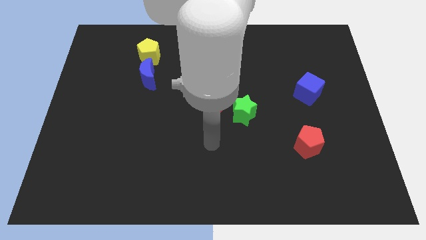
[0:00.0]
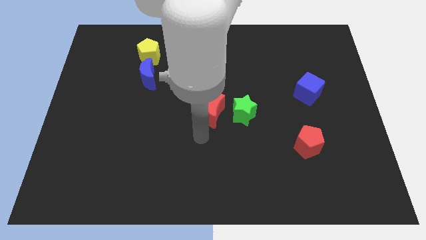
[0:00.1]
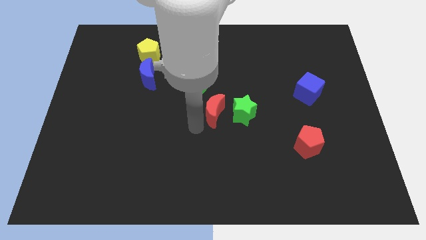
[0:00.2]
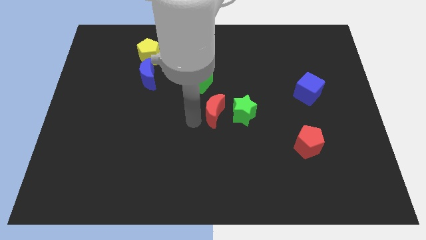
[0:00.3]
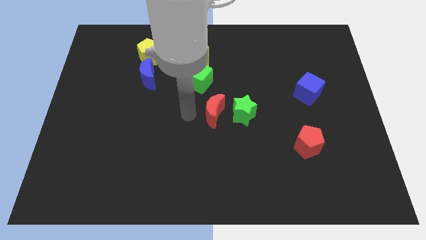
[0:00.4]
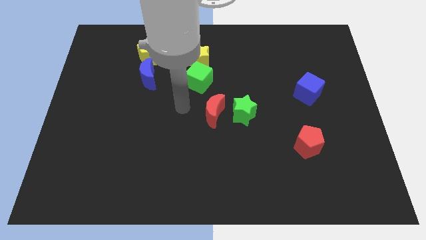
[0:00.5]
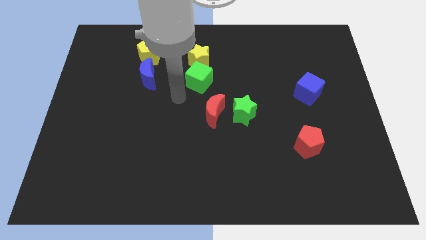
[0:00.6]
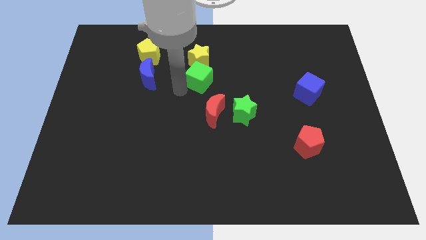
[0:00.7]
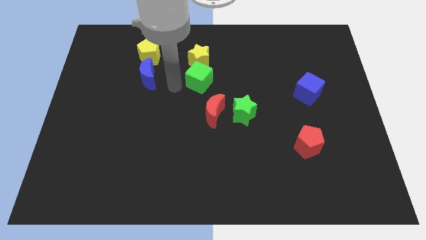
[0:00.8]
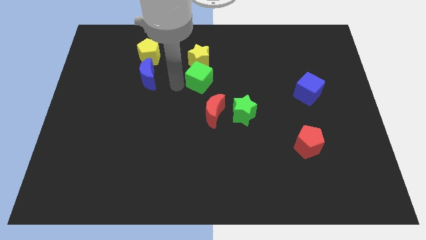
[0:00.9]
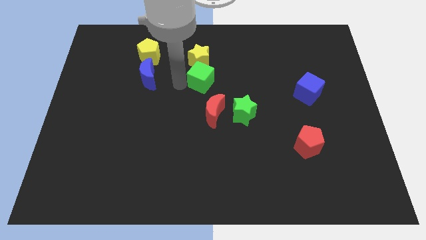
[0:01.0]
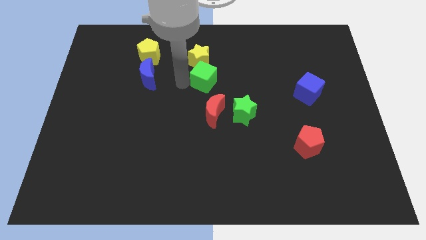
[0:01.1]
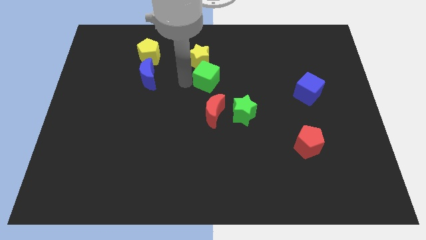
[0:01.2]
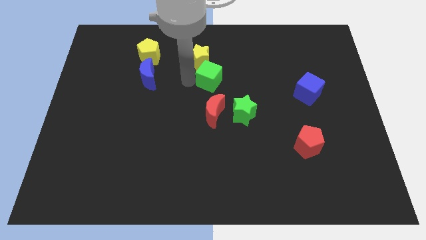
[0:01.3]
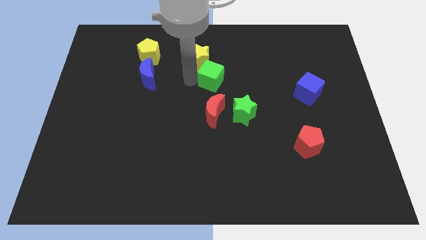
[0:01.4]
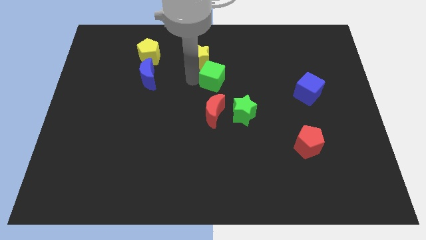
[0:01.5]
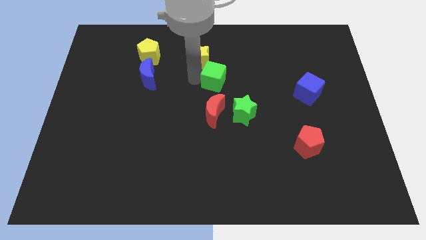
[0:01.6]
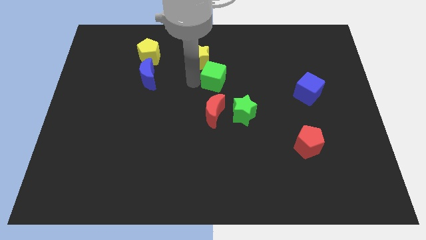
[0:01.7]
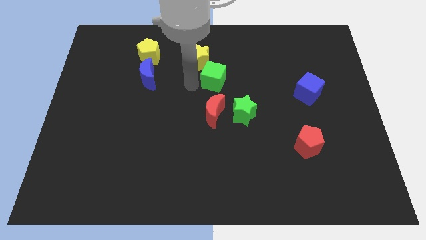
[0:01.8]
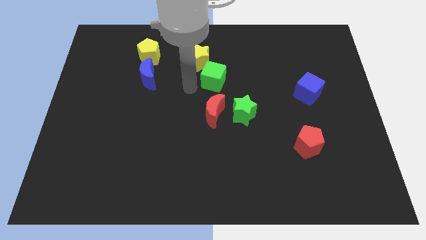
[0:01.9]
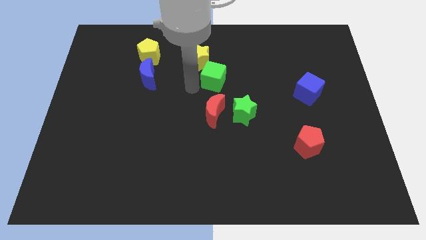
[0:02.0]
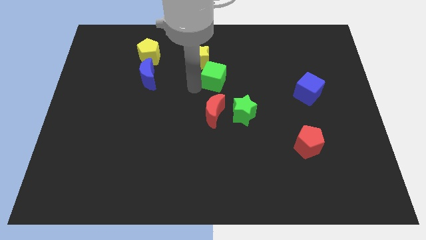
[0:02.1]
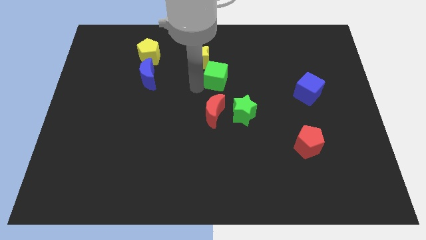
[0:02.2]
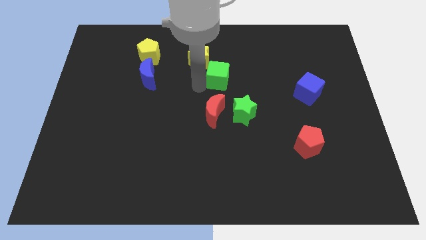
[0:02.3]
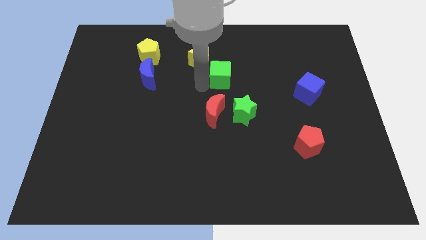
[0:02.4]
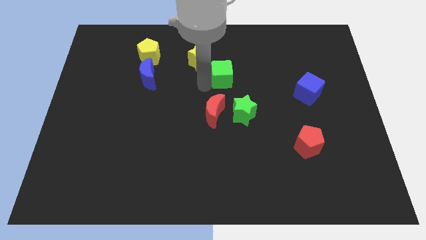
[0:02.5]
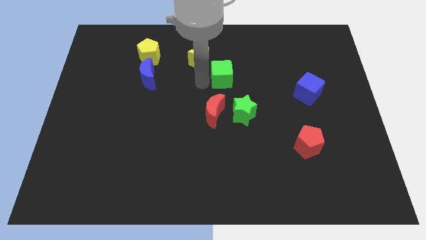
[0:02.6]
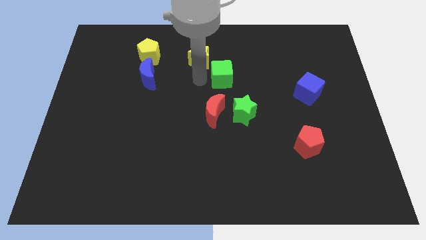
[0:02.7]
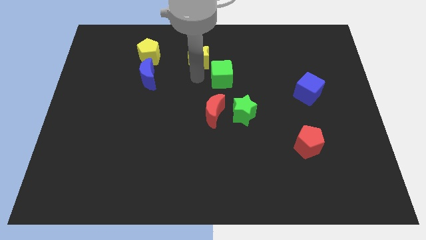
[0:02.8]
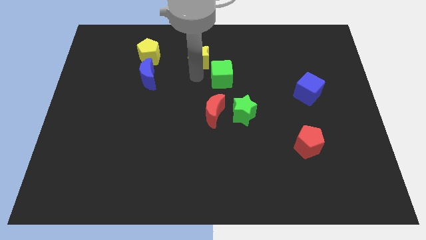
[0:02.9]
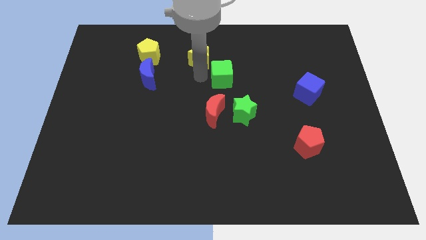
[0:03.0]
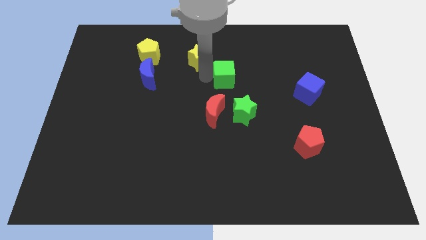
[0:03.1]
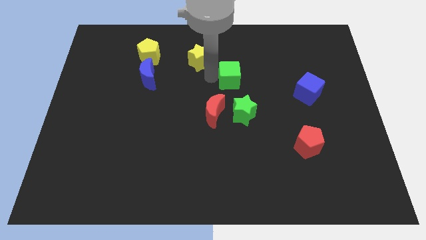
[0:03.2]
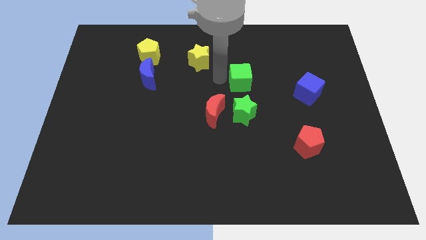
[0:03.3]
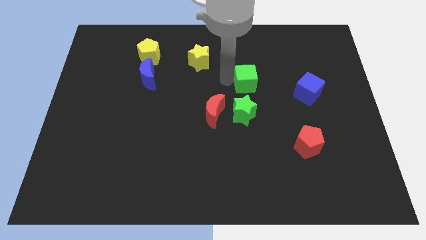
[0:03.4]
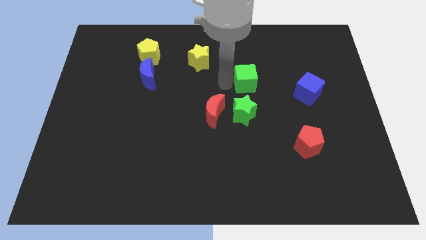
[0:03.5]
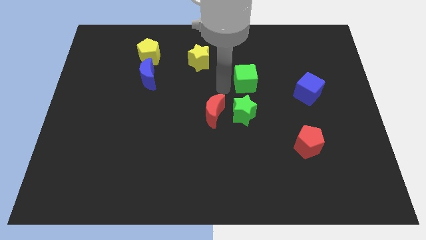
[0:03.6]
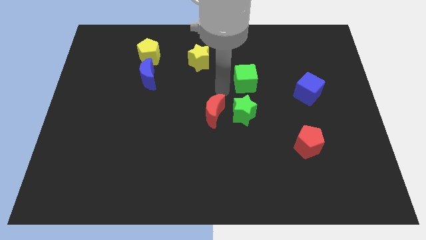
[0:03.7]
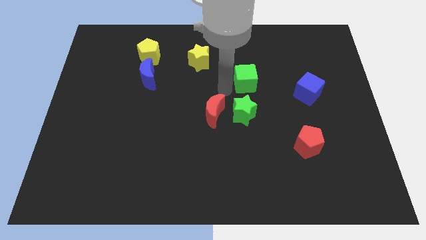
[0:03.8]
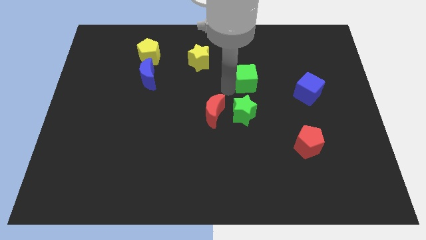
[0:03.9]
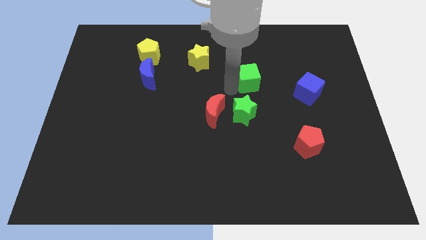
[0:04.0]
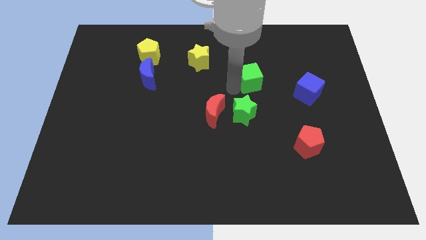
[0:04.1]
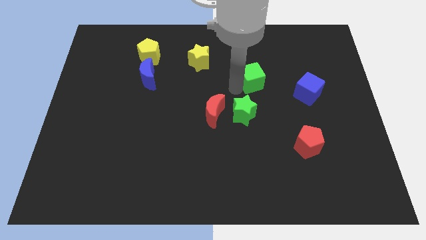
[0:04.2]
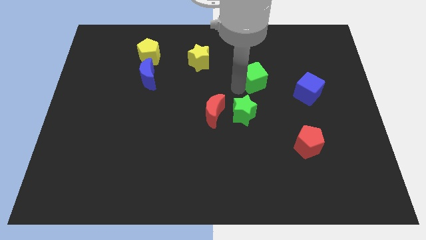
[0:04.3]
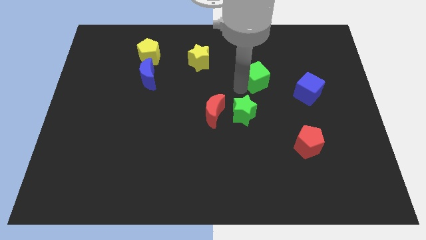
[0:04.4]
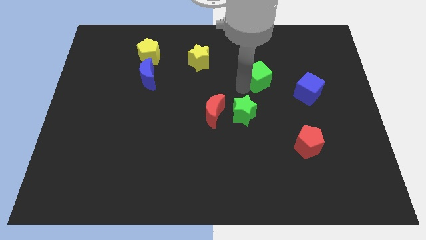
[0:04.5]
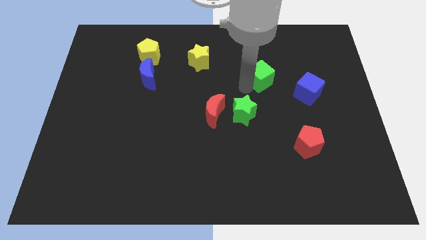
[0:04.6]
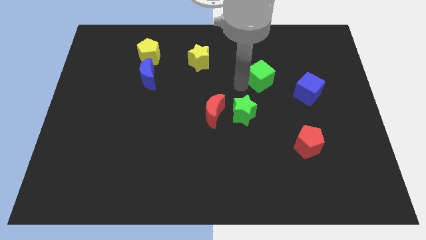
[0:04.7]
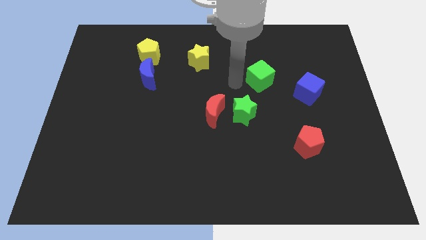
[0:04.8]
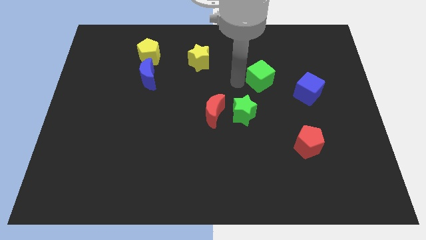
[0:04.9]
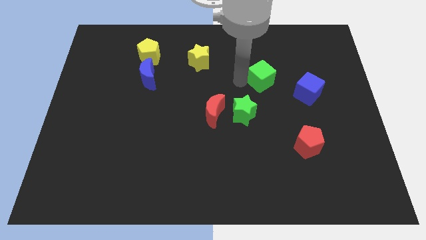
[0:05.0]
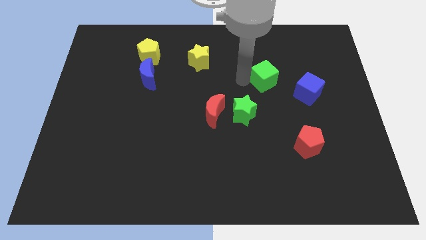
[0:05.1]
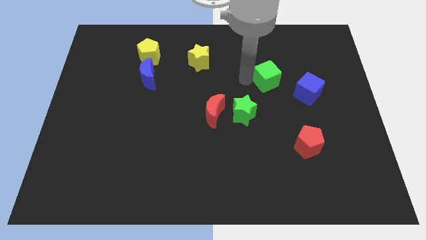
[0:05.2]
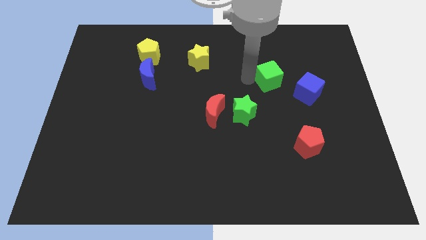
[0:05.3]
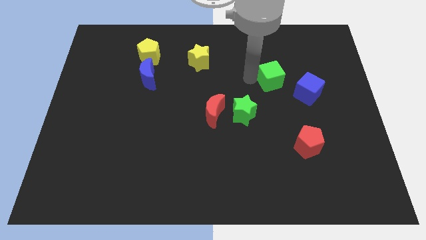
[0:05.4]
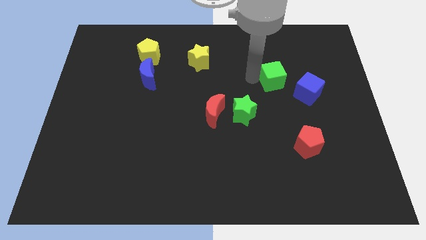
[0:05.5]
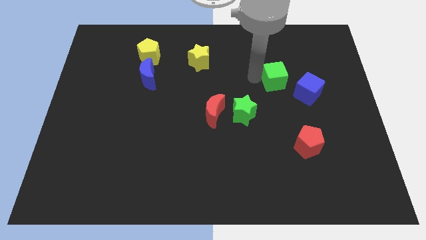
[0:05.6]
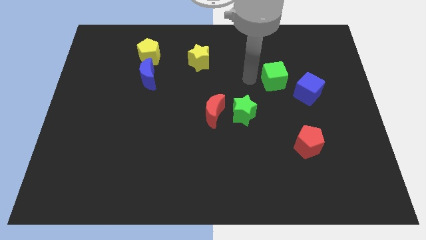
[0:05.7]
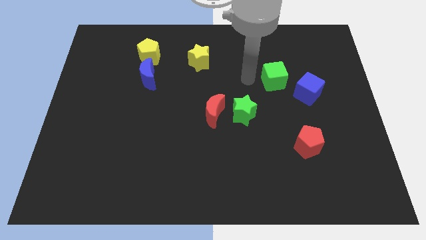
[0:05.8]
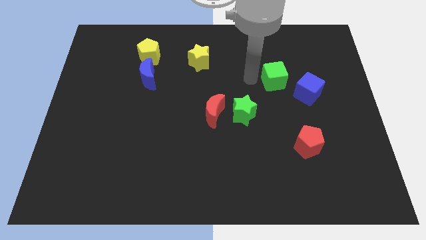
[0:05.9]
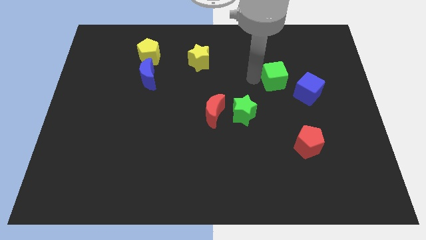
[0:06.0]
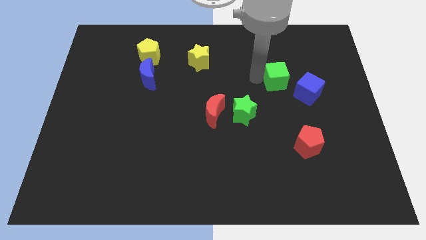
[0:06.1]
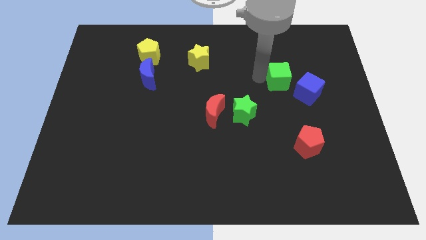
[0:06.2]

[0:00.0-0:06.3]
move the green cube to the right

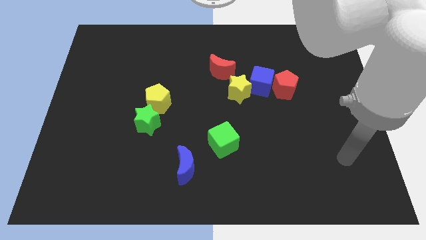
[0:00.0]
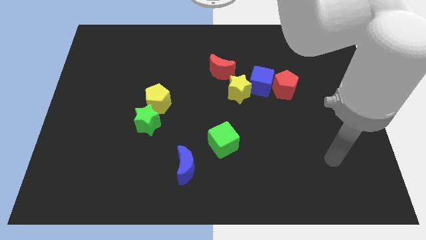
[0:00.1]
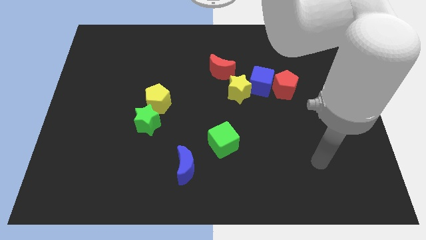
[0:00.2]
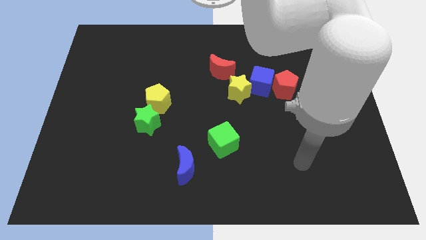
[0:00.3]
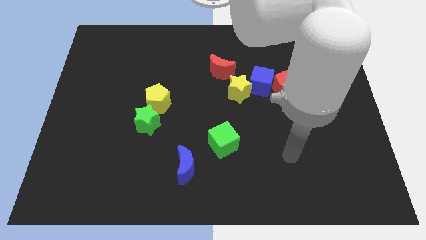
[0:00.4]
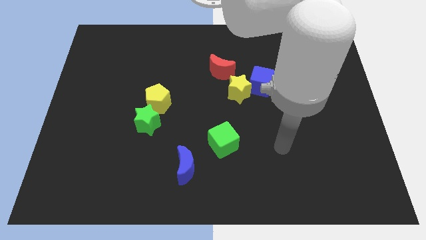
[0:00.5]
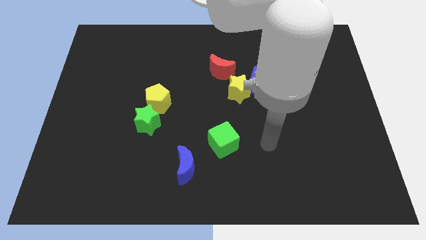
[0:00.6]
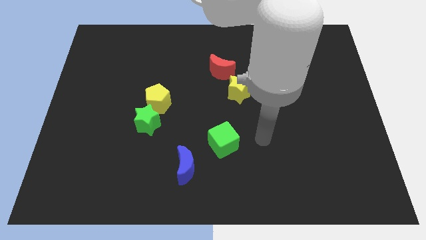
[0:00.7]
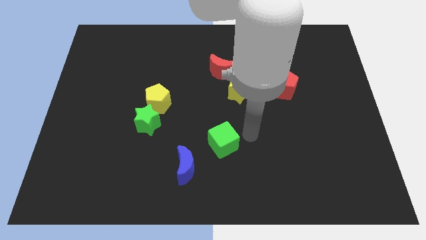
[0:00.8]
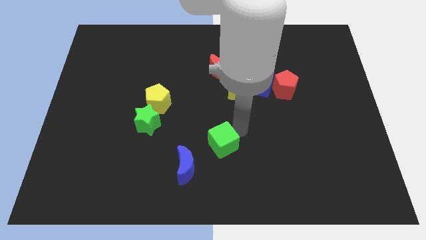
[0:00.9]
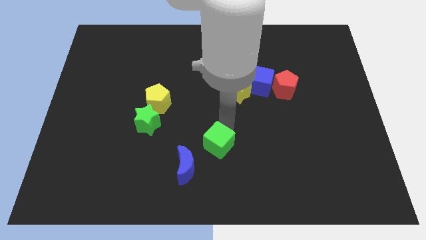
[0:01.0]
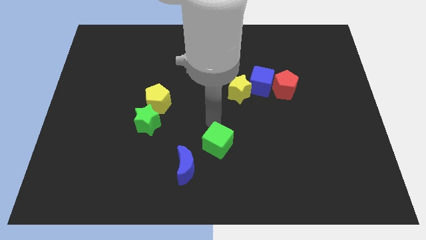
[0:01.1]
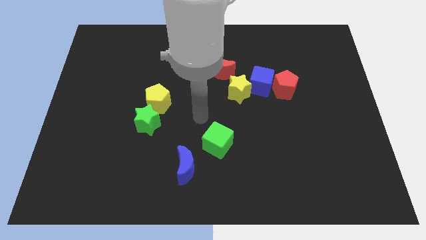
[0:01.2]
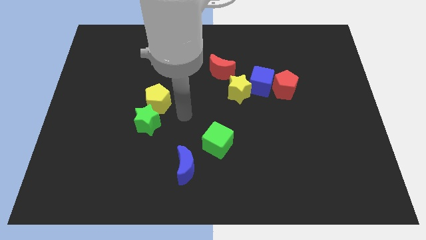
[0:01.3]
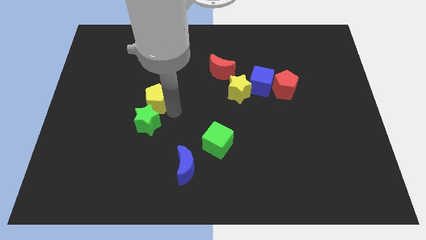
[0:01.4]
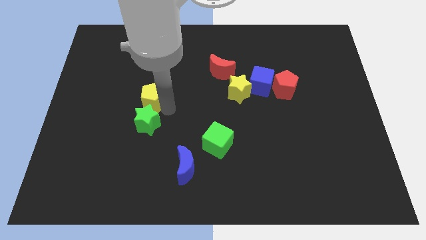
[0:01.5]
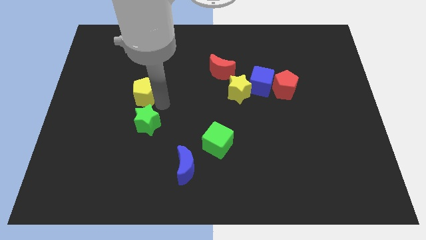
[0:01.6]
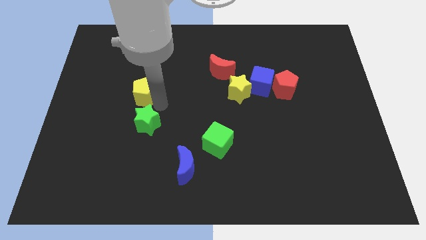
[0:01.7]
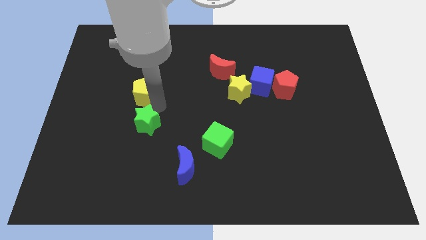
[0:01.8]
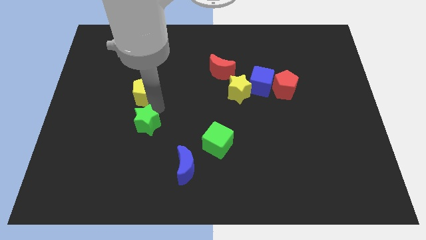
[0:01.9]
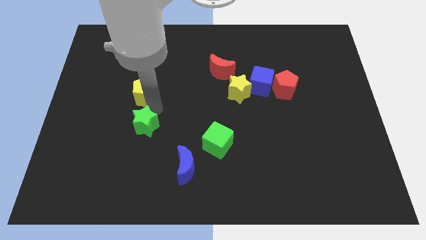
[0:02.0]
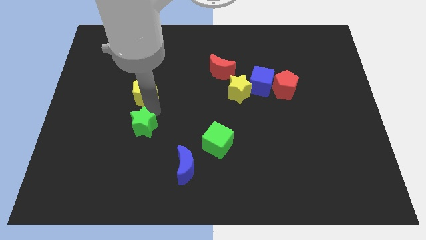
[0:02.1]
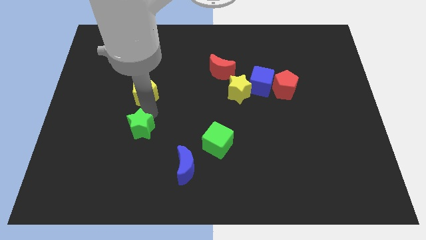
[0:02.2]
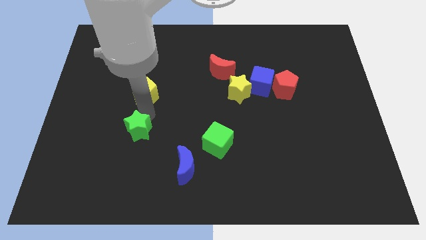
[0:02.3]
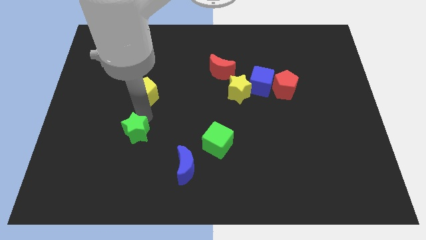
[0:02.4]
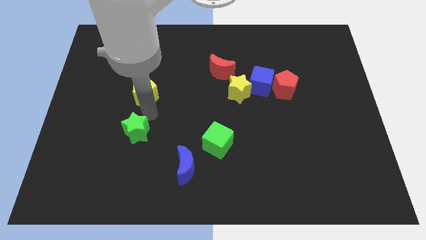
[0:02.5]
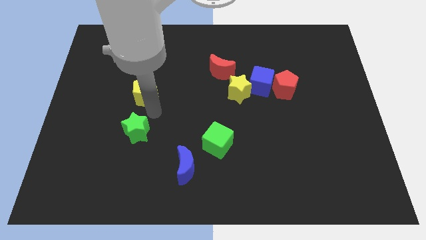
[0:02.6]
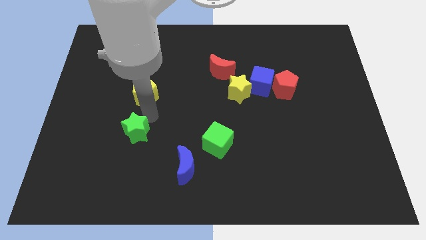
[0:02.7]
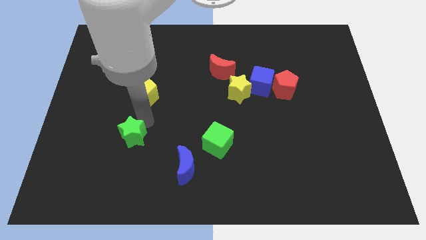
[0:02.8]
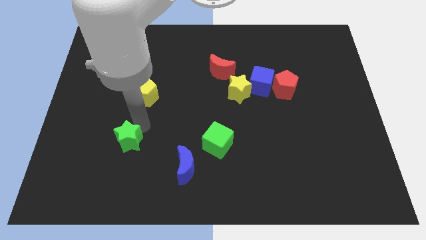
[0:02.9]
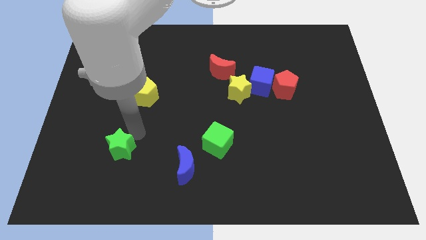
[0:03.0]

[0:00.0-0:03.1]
move the green star diagonally down and to the left a little bit
